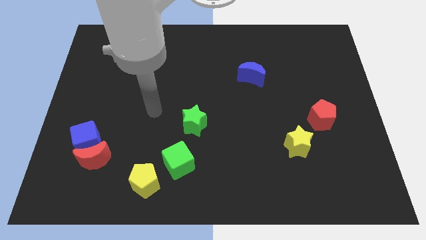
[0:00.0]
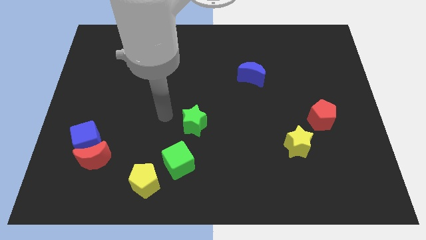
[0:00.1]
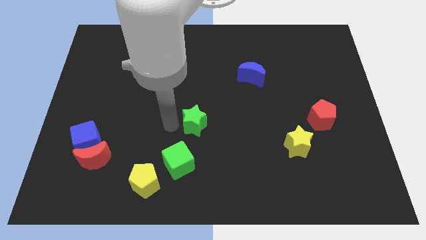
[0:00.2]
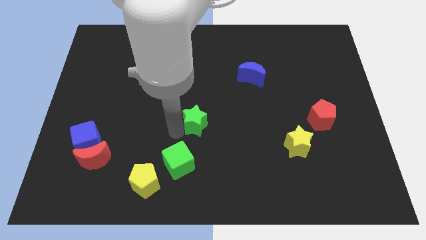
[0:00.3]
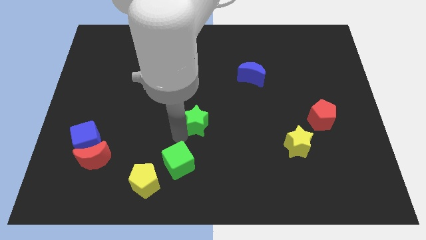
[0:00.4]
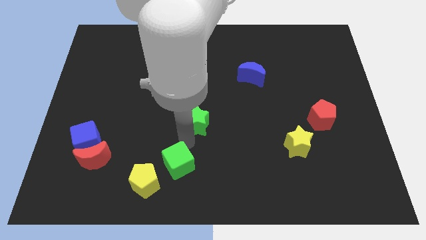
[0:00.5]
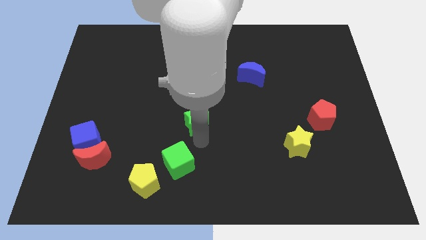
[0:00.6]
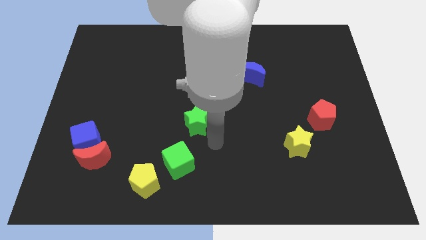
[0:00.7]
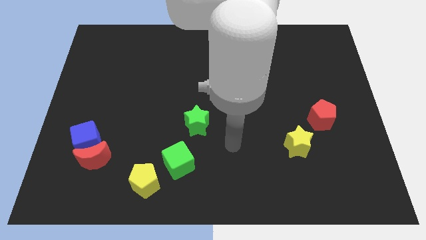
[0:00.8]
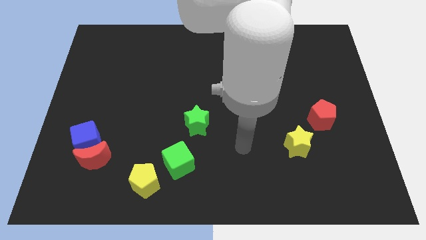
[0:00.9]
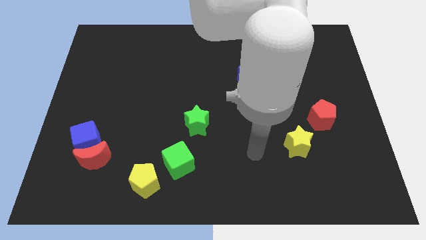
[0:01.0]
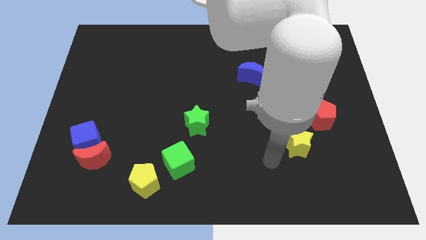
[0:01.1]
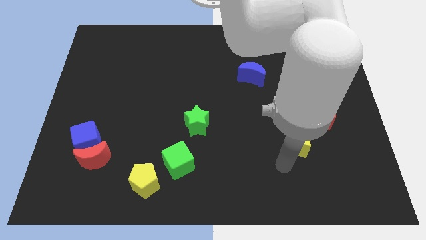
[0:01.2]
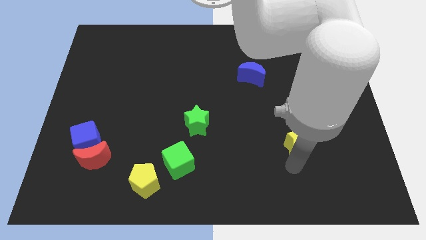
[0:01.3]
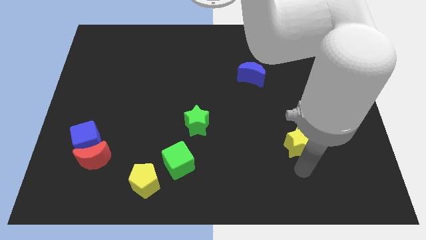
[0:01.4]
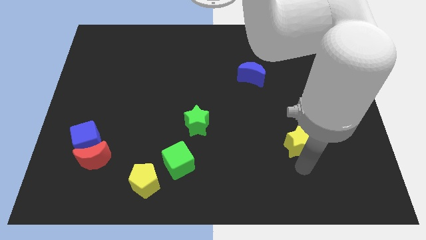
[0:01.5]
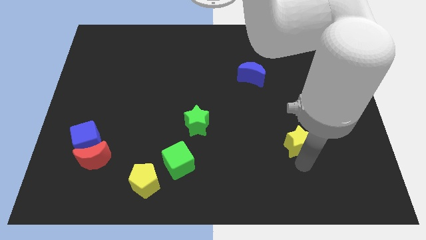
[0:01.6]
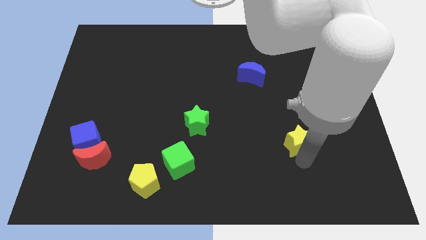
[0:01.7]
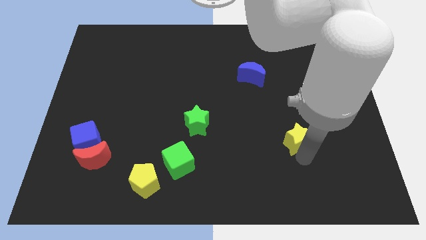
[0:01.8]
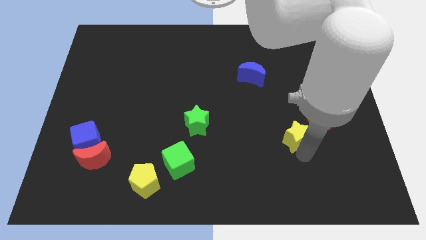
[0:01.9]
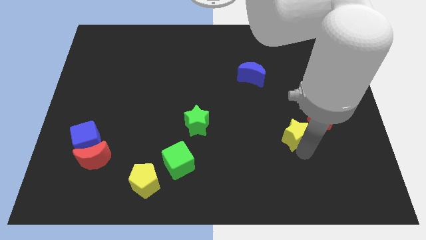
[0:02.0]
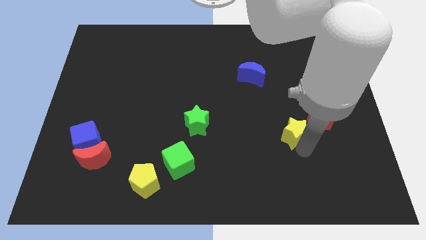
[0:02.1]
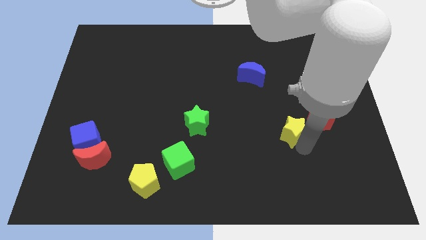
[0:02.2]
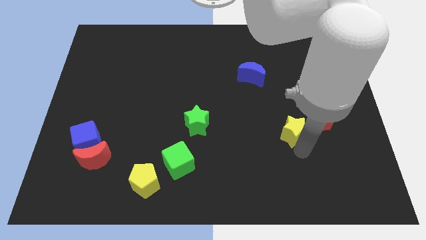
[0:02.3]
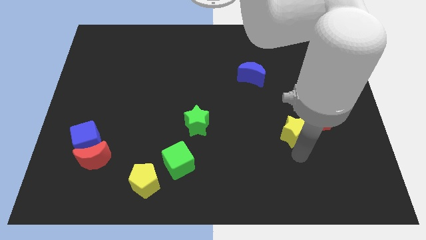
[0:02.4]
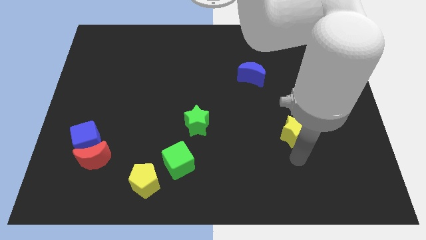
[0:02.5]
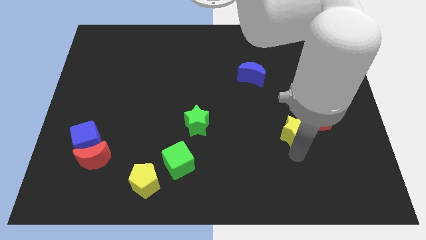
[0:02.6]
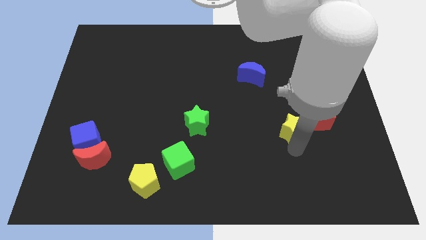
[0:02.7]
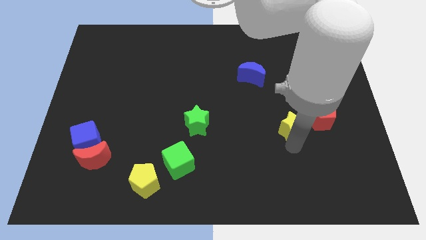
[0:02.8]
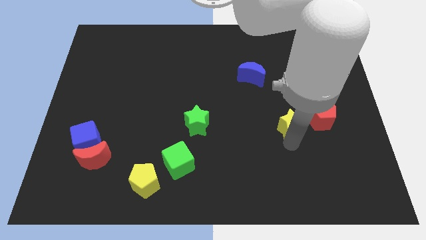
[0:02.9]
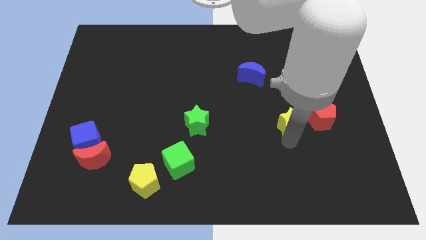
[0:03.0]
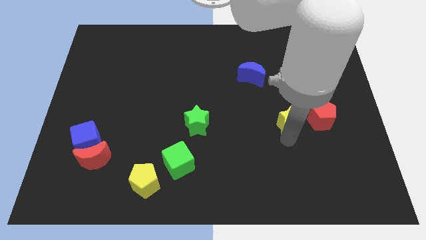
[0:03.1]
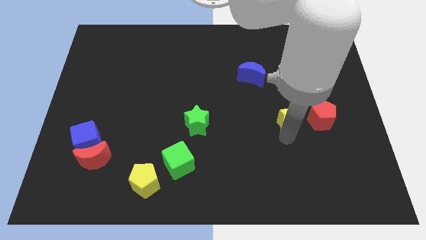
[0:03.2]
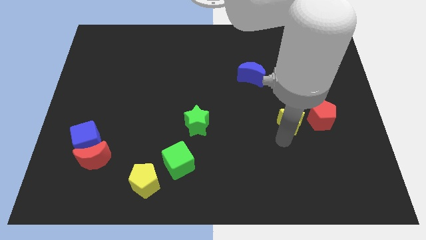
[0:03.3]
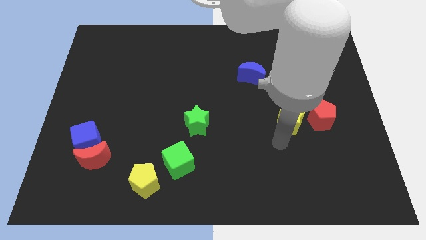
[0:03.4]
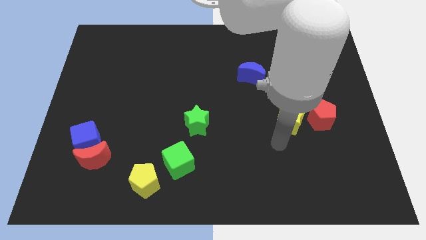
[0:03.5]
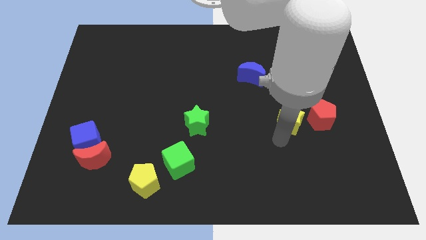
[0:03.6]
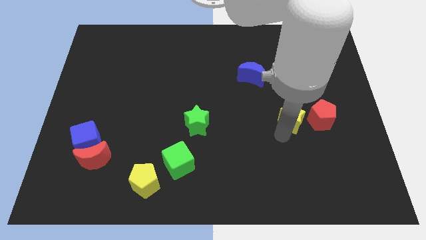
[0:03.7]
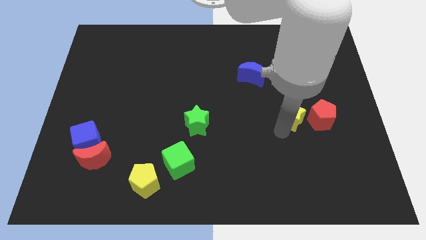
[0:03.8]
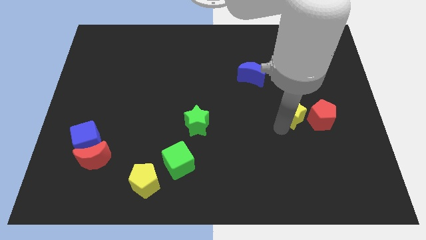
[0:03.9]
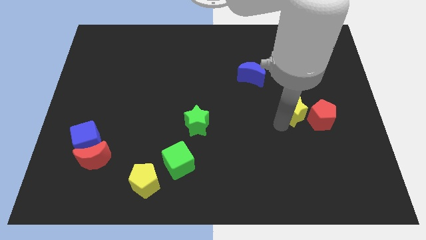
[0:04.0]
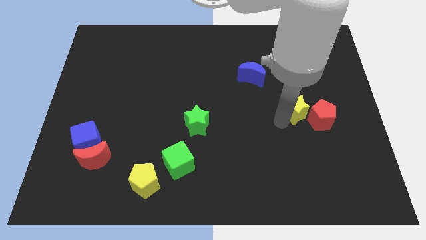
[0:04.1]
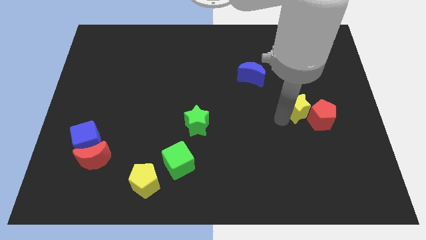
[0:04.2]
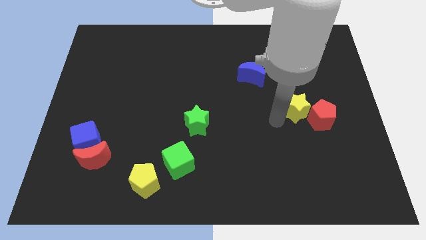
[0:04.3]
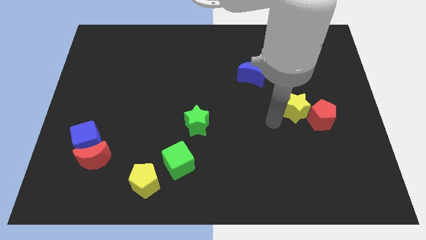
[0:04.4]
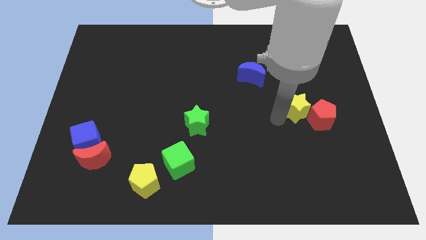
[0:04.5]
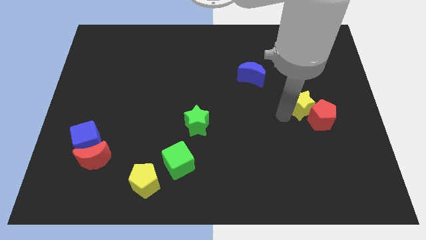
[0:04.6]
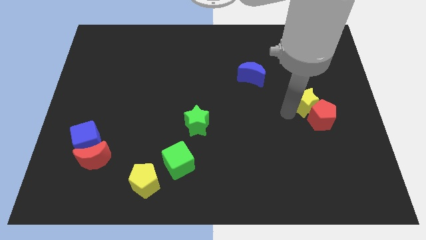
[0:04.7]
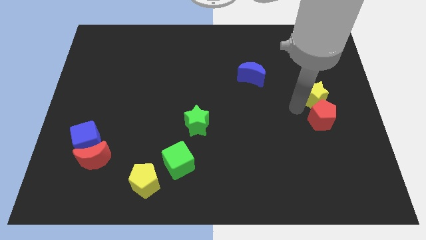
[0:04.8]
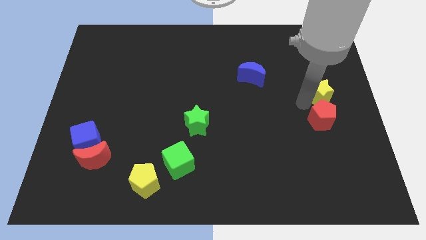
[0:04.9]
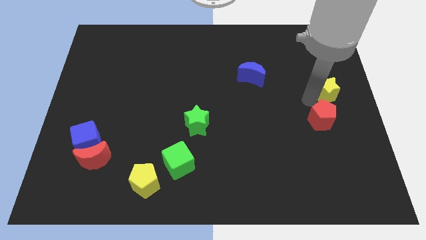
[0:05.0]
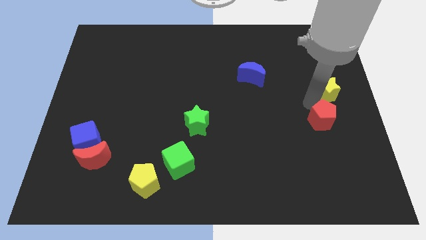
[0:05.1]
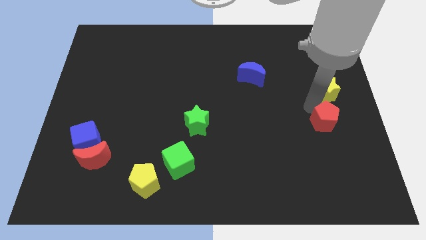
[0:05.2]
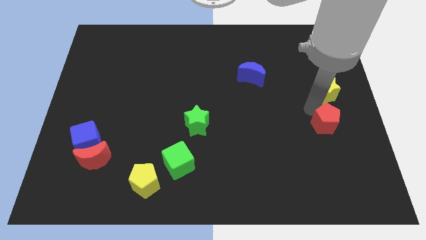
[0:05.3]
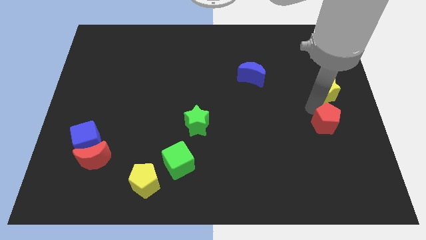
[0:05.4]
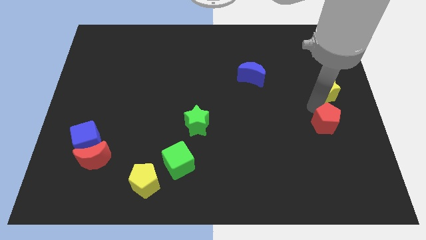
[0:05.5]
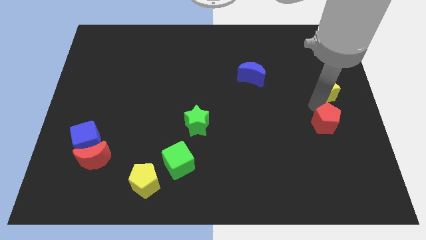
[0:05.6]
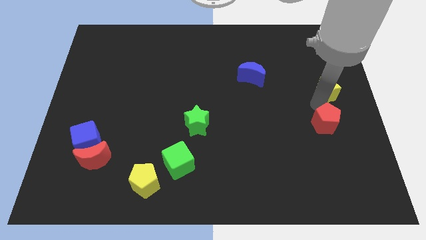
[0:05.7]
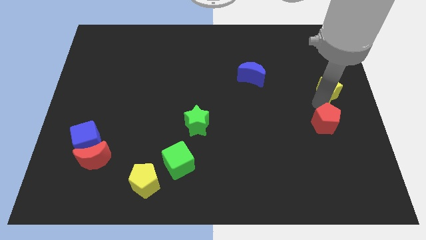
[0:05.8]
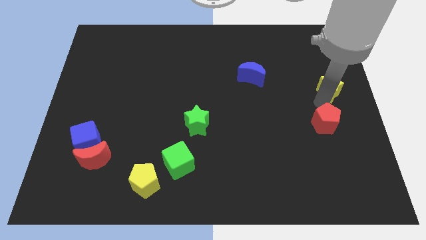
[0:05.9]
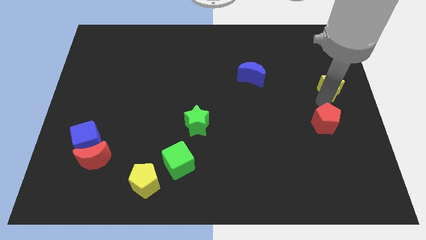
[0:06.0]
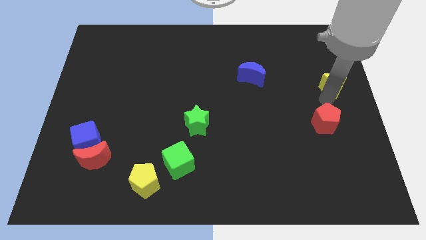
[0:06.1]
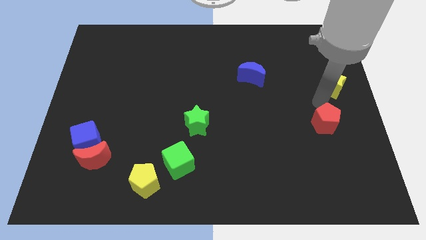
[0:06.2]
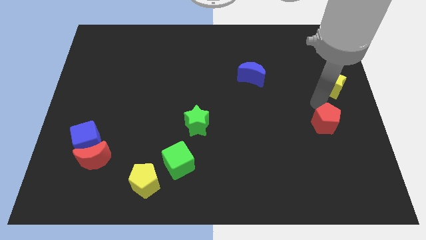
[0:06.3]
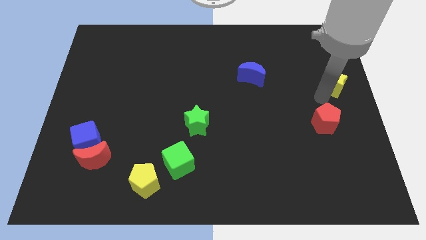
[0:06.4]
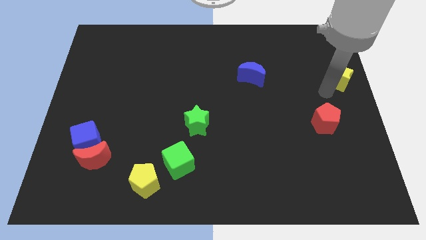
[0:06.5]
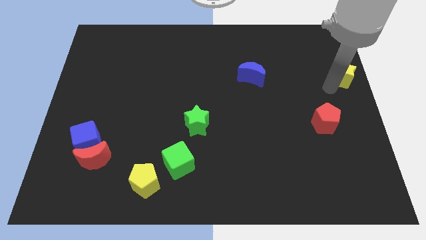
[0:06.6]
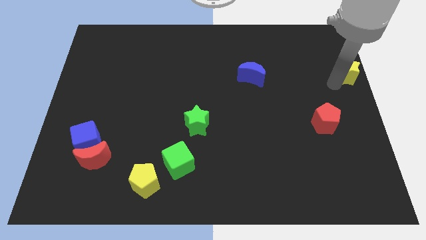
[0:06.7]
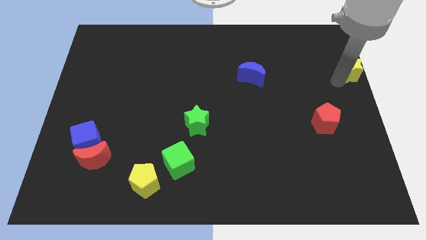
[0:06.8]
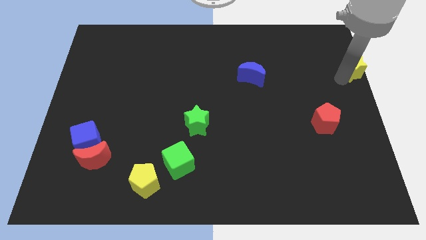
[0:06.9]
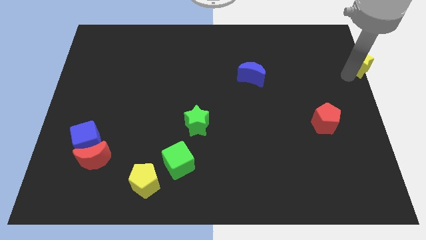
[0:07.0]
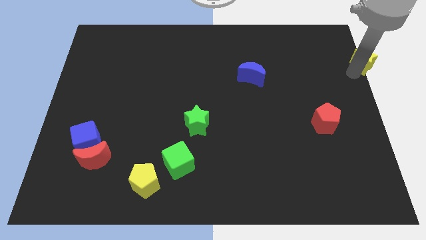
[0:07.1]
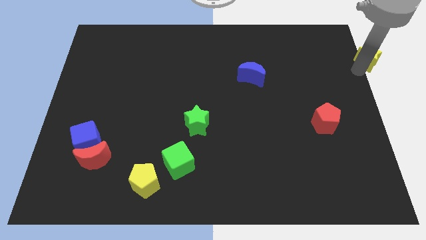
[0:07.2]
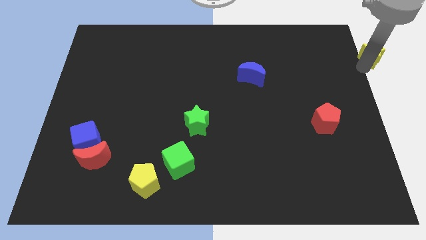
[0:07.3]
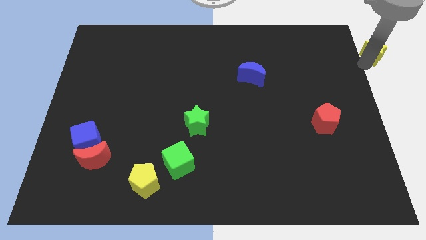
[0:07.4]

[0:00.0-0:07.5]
move the yellow star to the top right corner
